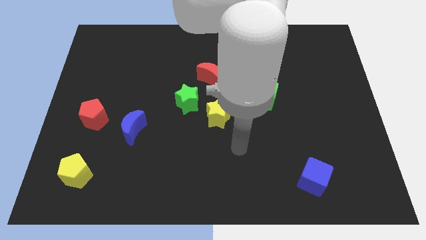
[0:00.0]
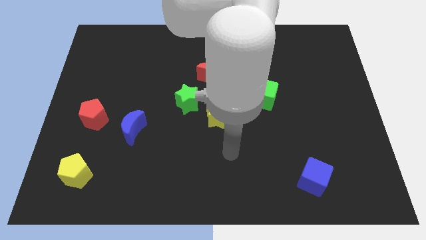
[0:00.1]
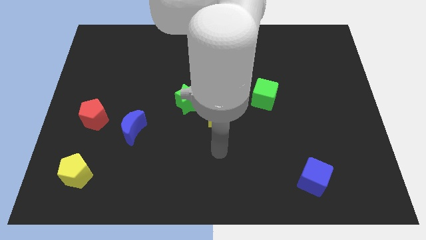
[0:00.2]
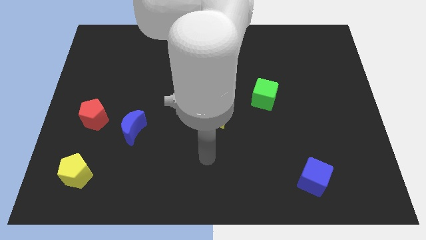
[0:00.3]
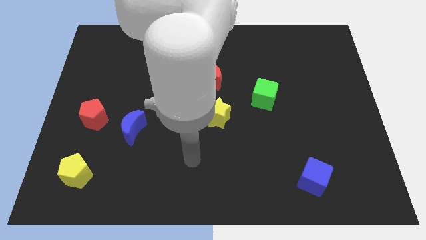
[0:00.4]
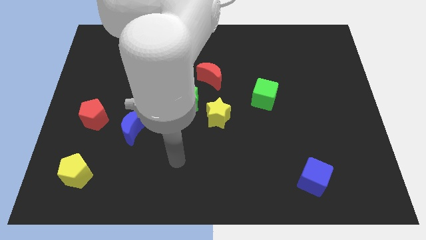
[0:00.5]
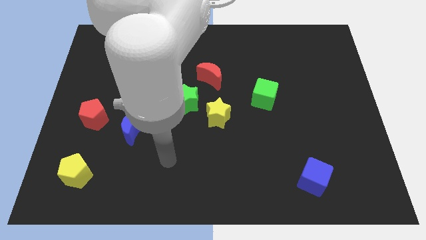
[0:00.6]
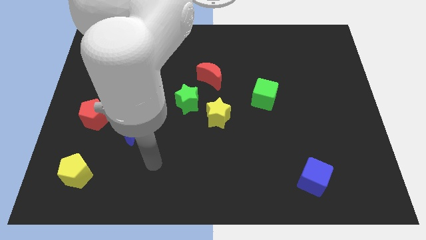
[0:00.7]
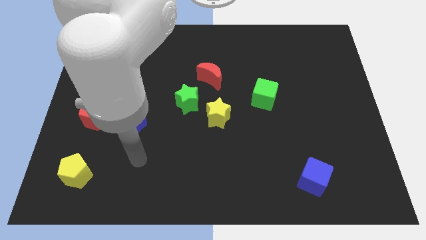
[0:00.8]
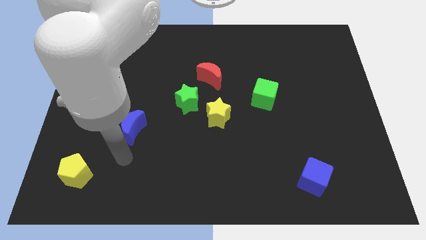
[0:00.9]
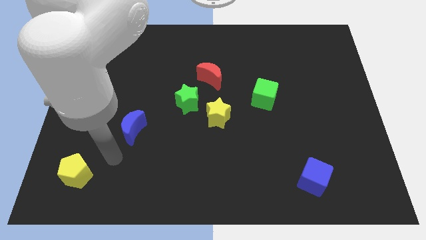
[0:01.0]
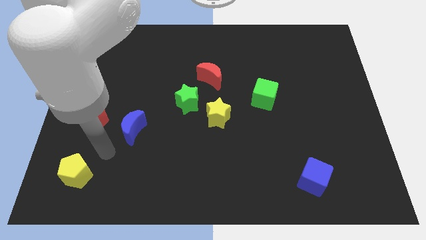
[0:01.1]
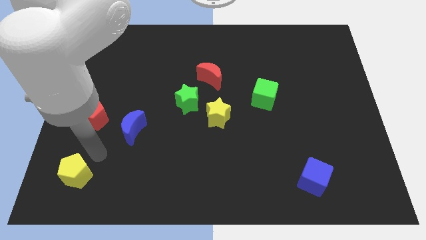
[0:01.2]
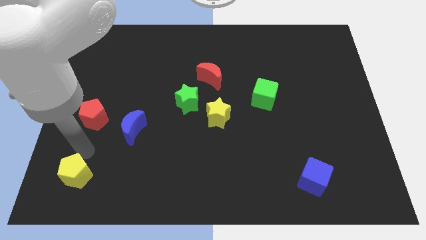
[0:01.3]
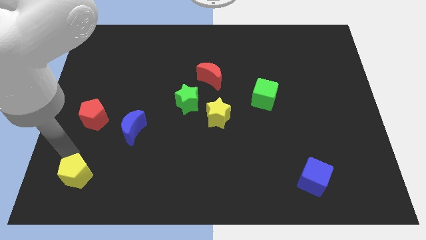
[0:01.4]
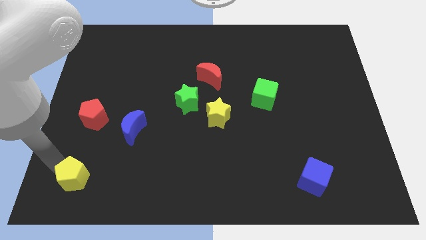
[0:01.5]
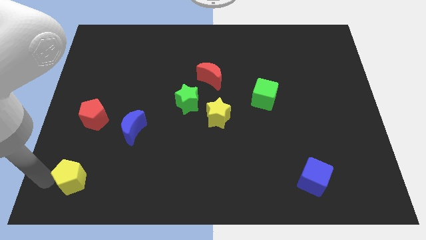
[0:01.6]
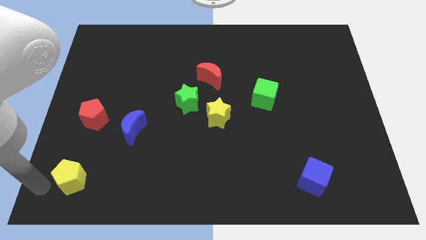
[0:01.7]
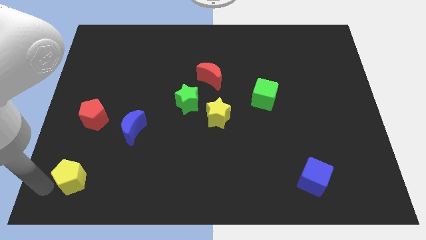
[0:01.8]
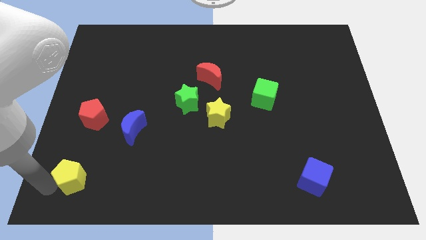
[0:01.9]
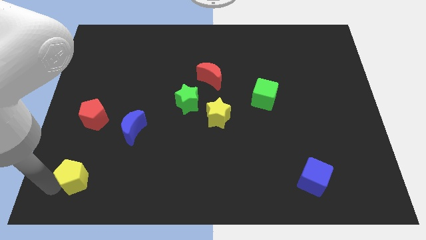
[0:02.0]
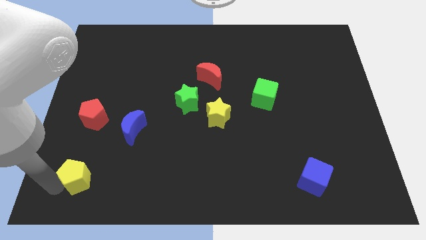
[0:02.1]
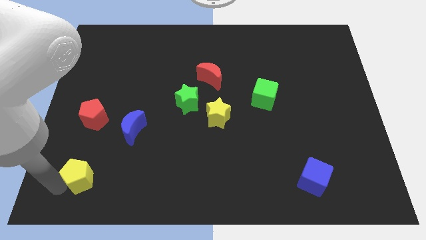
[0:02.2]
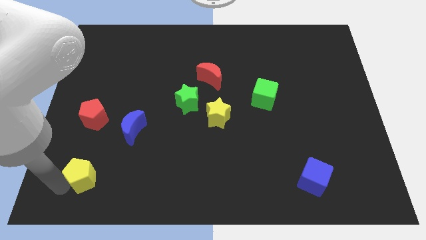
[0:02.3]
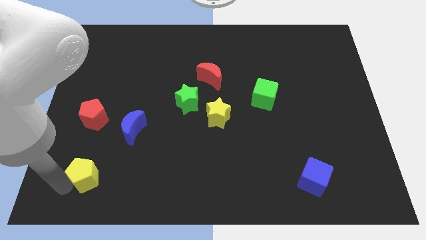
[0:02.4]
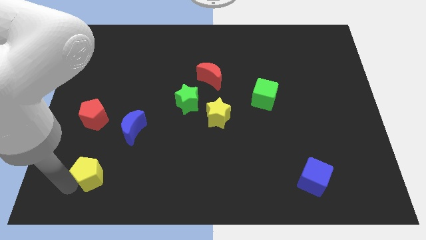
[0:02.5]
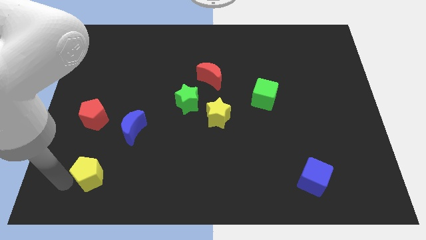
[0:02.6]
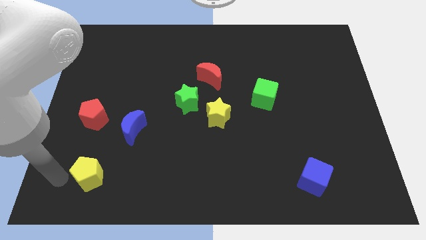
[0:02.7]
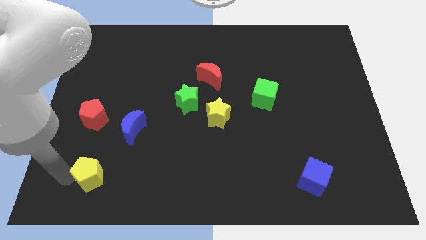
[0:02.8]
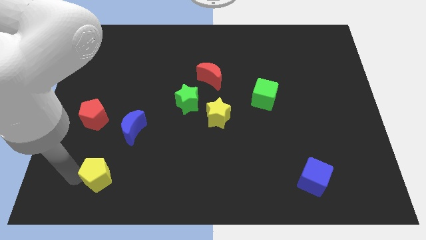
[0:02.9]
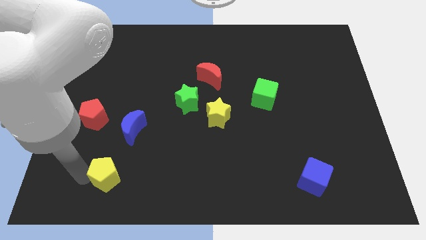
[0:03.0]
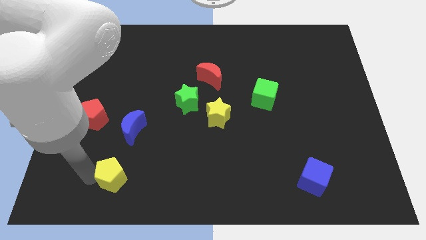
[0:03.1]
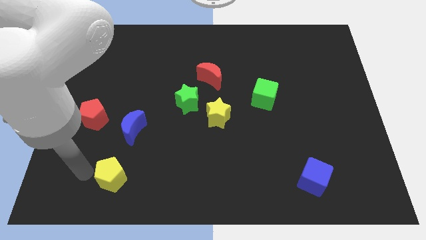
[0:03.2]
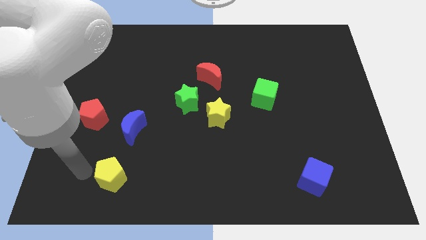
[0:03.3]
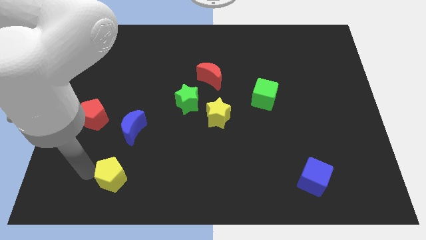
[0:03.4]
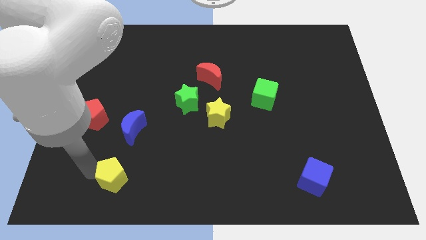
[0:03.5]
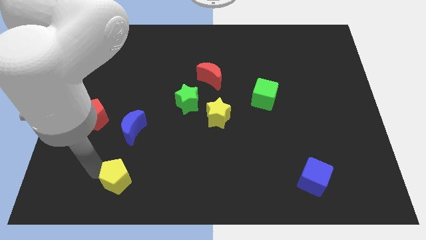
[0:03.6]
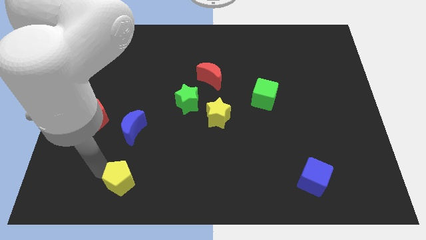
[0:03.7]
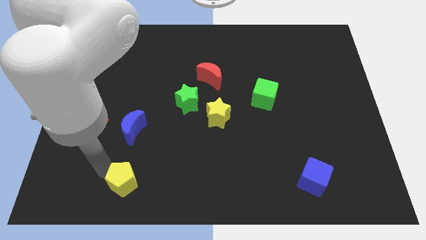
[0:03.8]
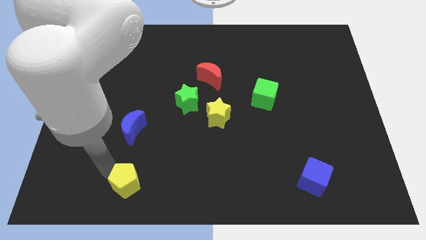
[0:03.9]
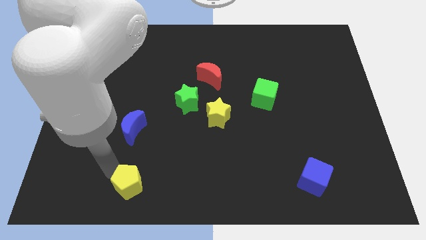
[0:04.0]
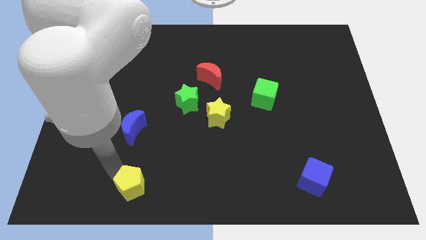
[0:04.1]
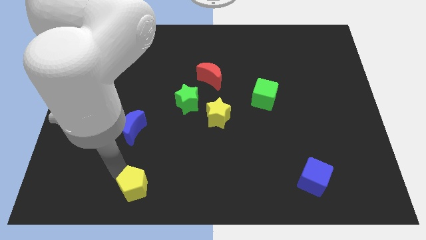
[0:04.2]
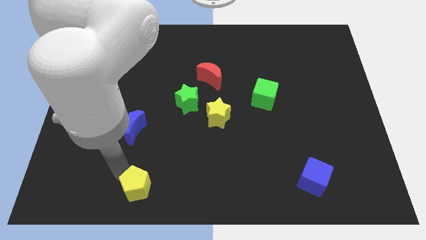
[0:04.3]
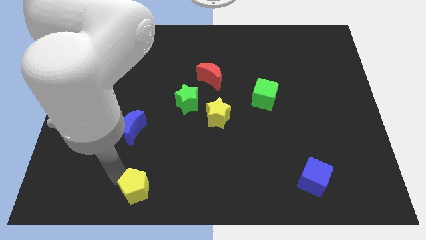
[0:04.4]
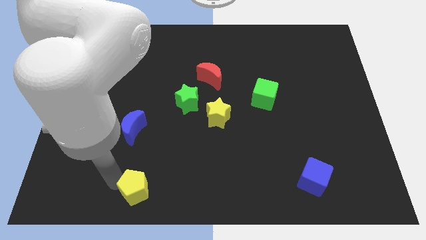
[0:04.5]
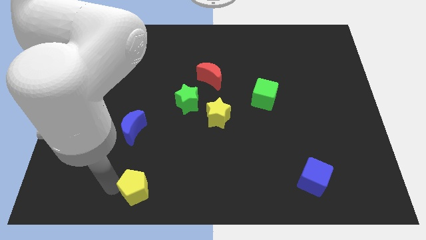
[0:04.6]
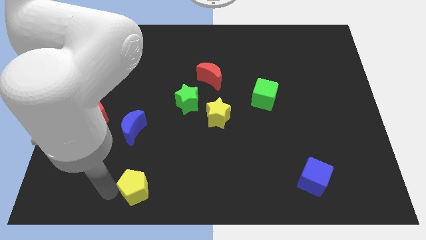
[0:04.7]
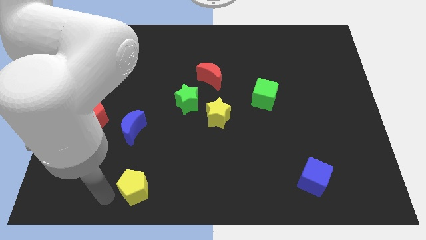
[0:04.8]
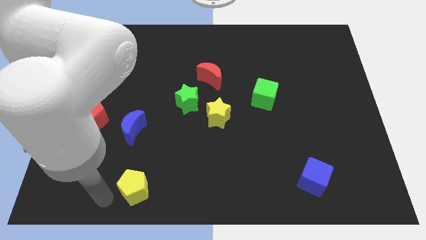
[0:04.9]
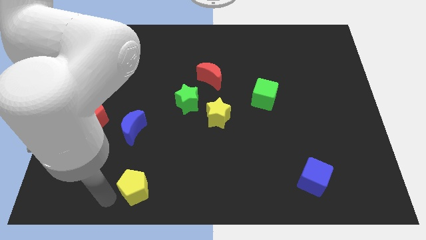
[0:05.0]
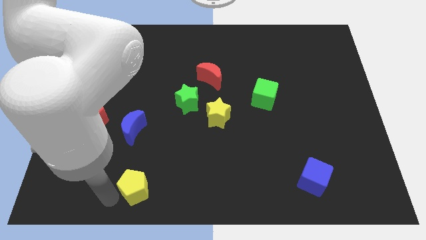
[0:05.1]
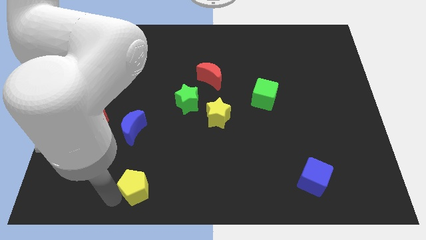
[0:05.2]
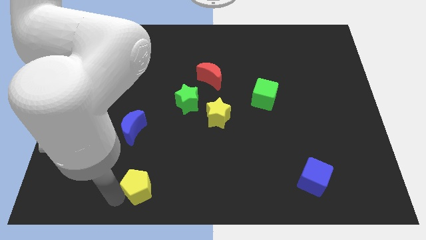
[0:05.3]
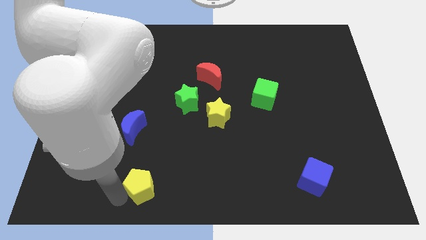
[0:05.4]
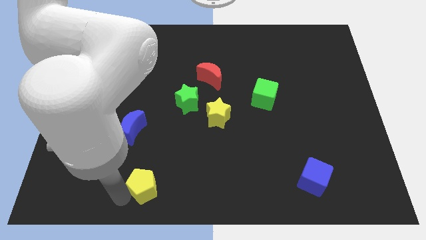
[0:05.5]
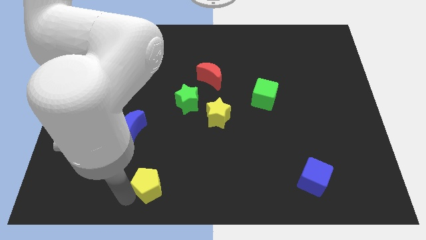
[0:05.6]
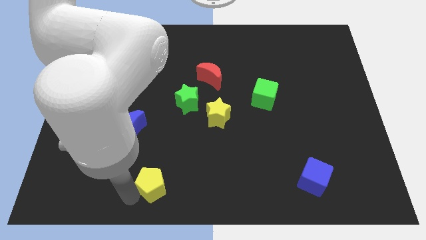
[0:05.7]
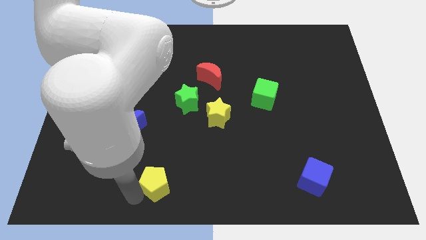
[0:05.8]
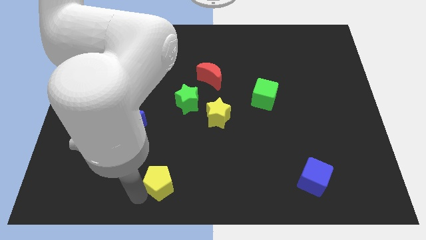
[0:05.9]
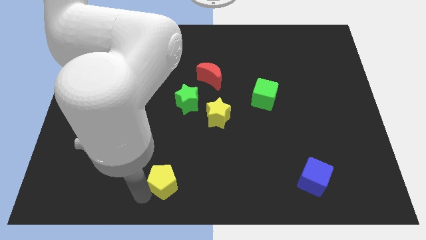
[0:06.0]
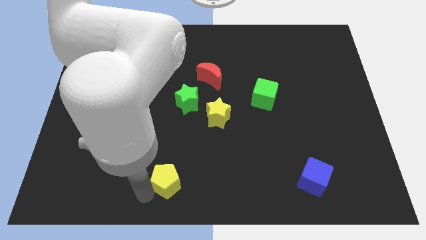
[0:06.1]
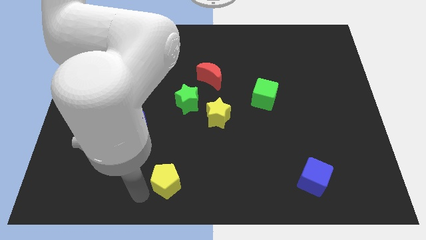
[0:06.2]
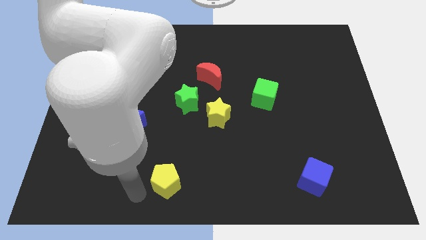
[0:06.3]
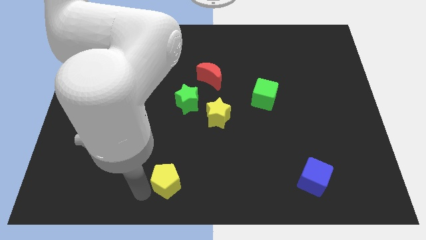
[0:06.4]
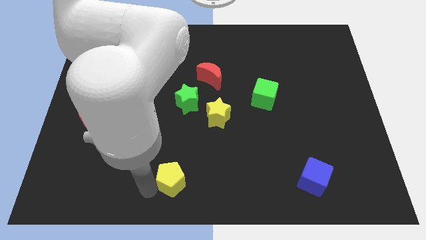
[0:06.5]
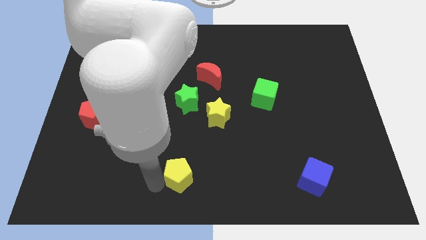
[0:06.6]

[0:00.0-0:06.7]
move the yellow pentagon right

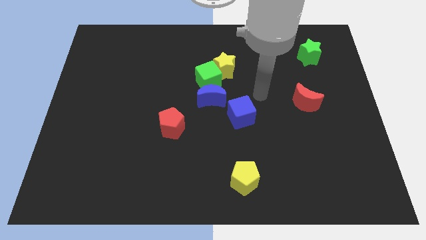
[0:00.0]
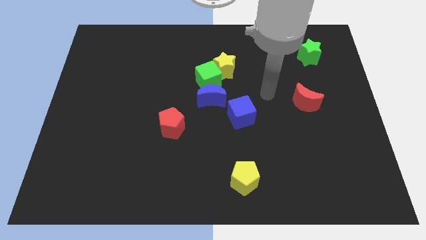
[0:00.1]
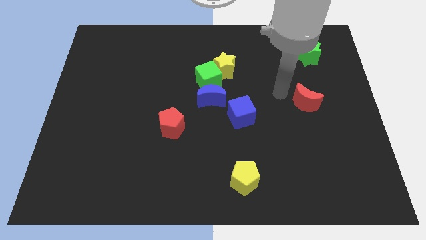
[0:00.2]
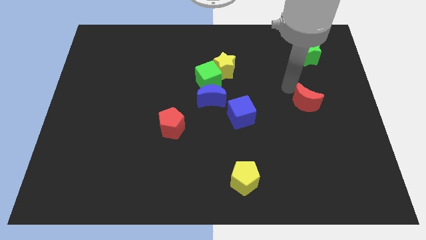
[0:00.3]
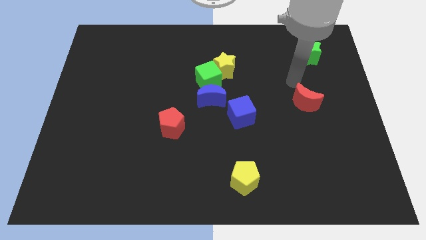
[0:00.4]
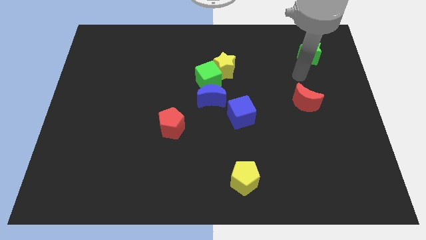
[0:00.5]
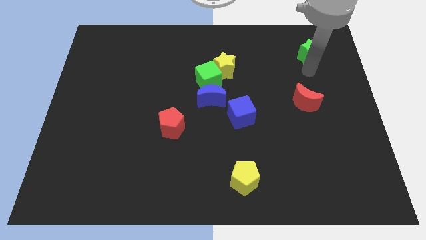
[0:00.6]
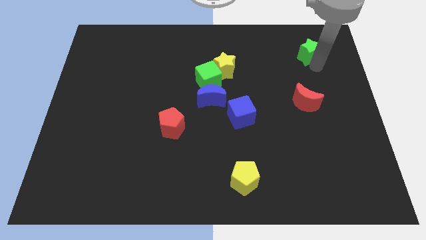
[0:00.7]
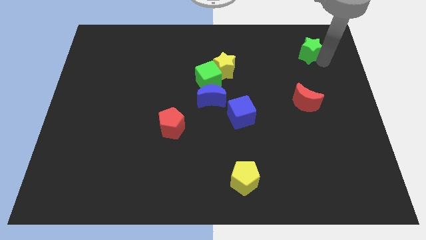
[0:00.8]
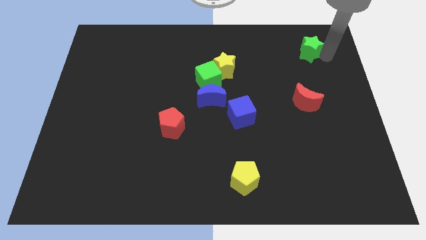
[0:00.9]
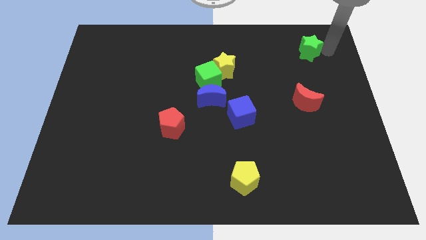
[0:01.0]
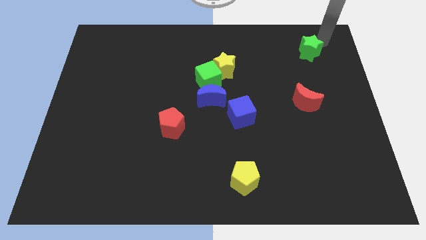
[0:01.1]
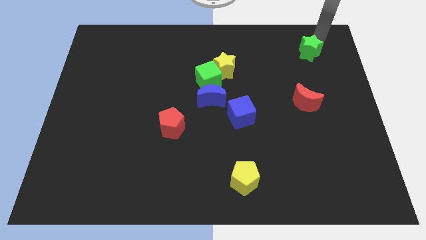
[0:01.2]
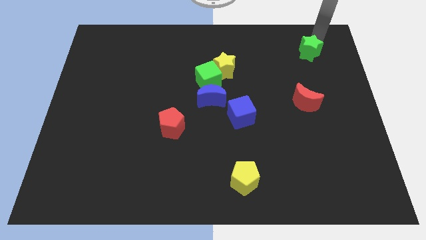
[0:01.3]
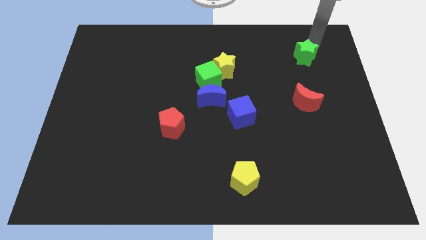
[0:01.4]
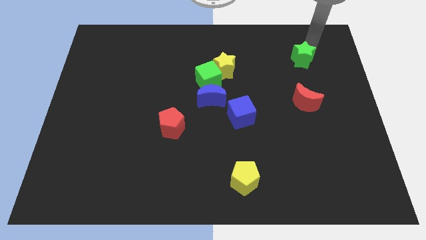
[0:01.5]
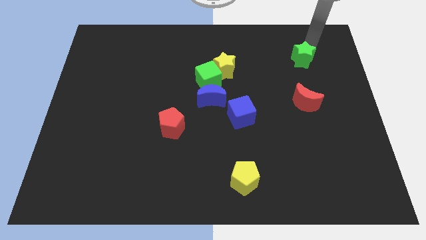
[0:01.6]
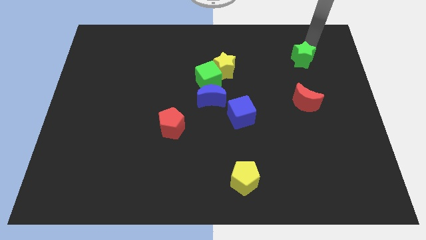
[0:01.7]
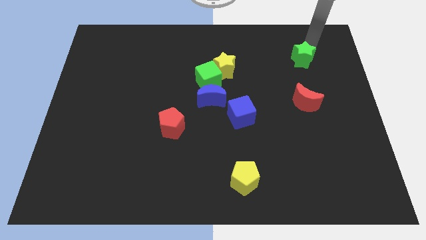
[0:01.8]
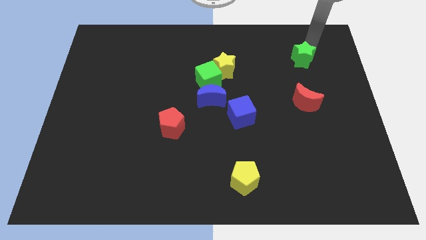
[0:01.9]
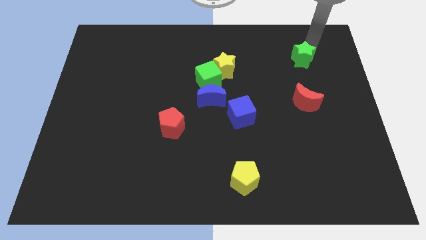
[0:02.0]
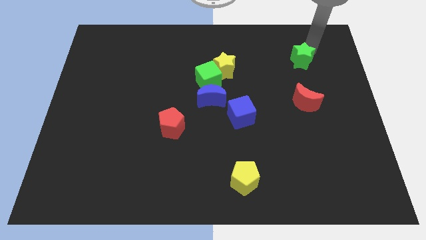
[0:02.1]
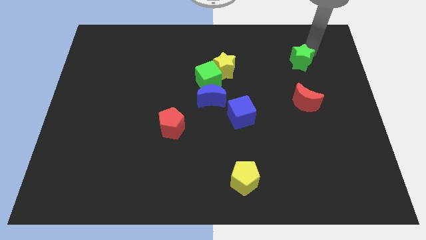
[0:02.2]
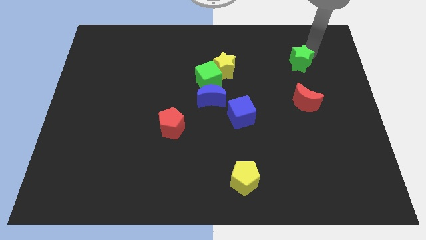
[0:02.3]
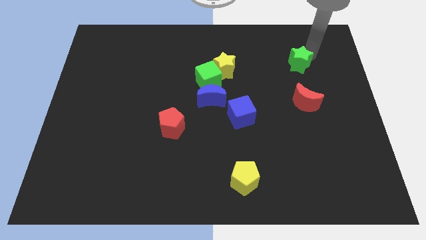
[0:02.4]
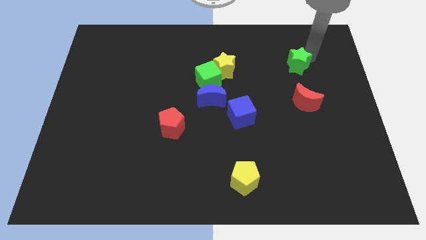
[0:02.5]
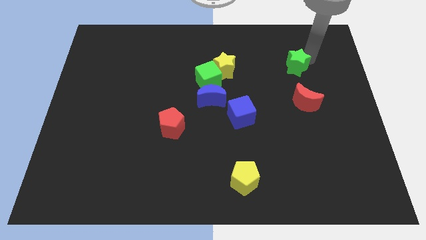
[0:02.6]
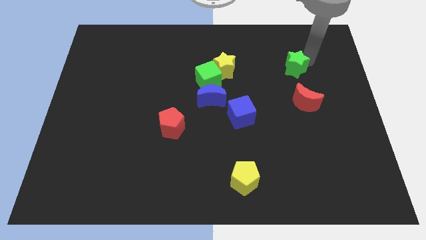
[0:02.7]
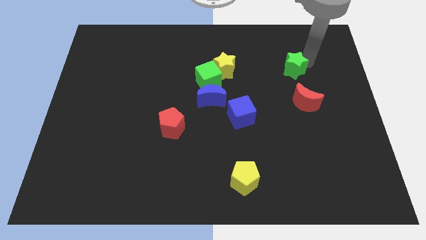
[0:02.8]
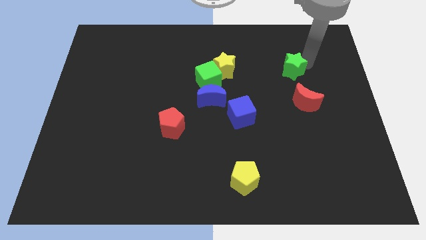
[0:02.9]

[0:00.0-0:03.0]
slightly push the green star downwards and to the left
